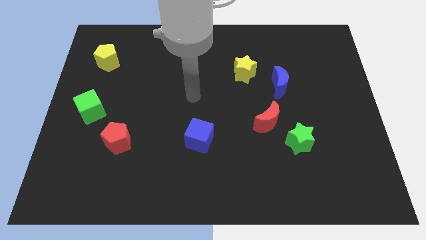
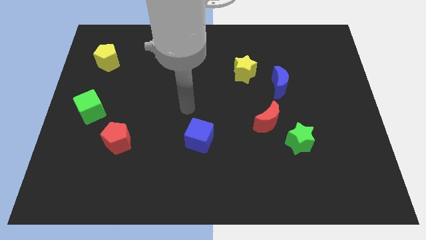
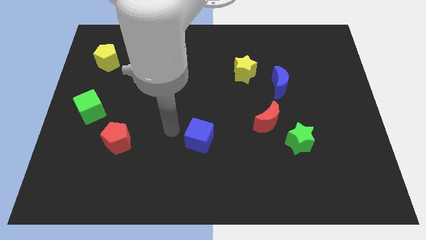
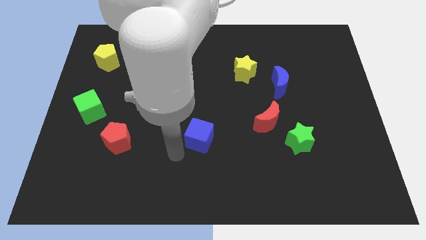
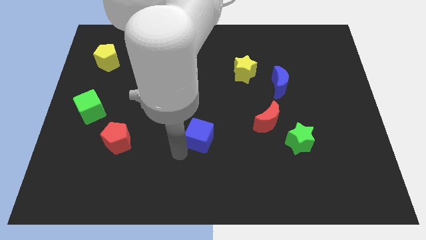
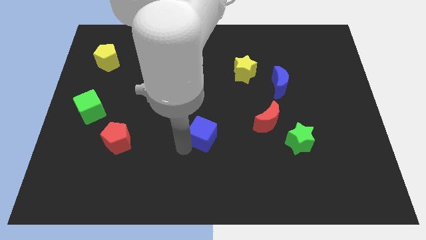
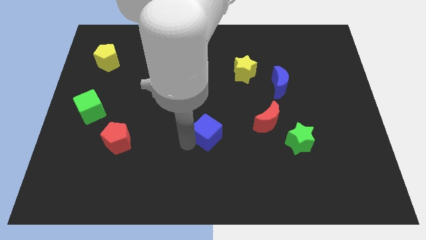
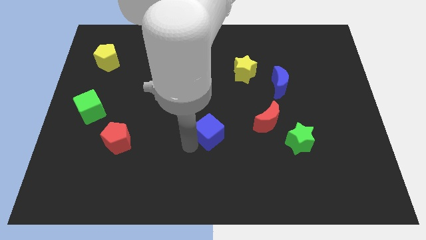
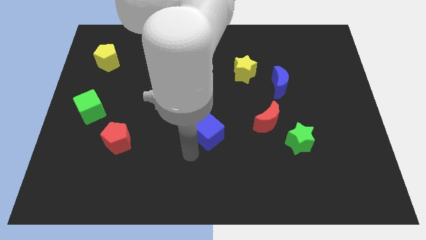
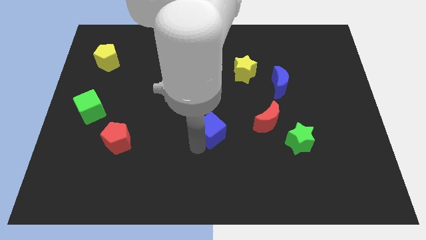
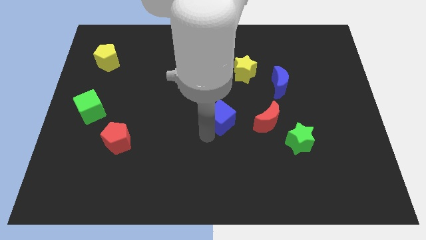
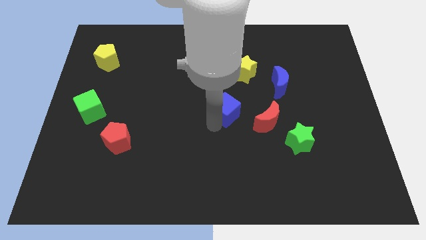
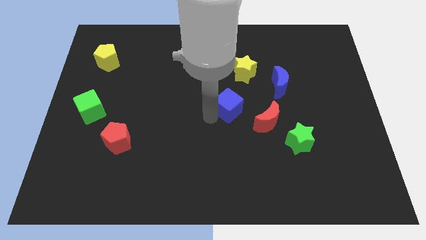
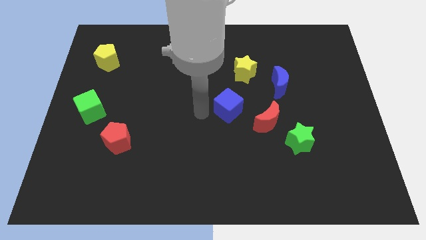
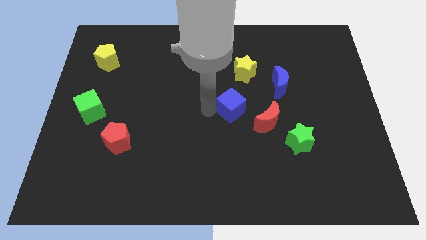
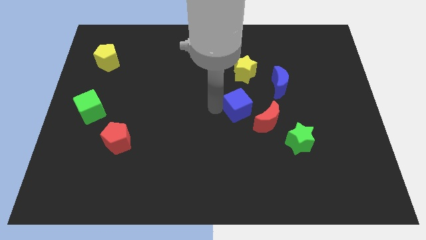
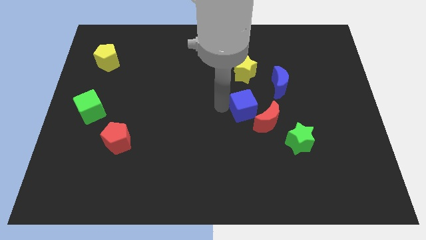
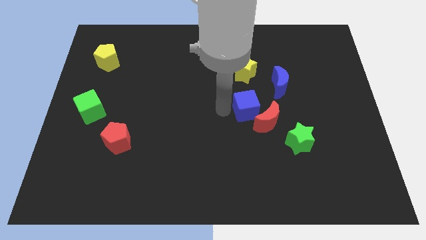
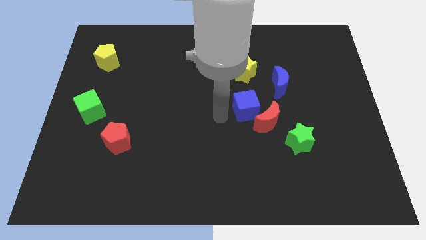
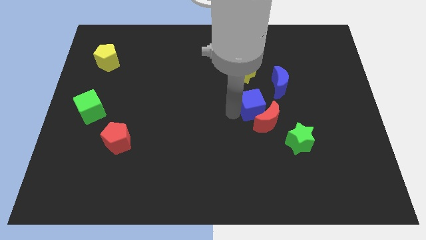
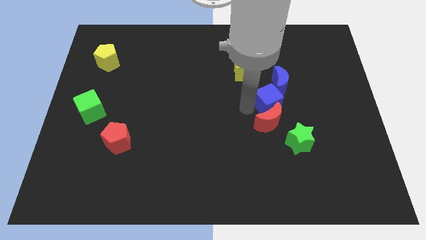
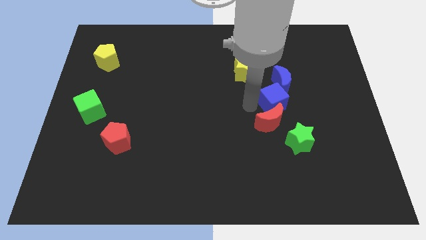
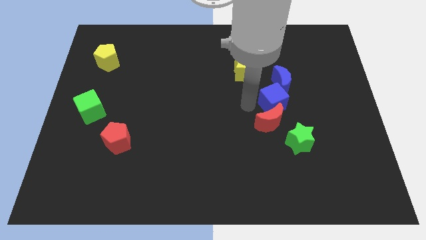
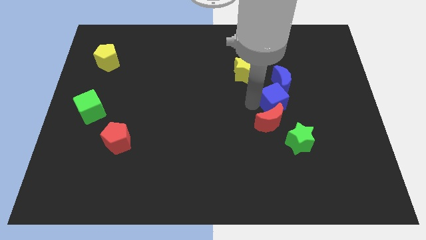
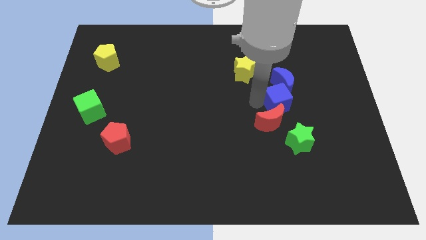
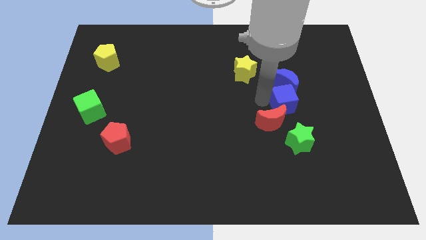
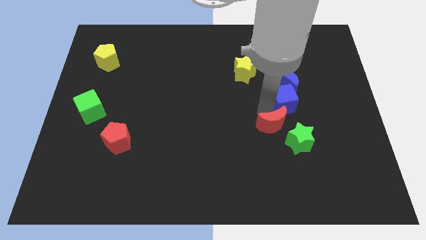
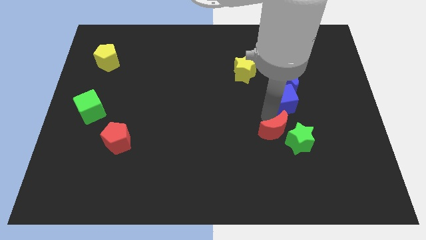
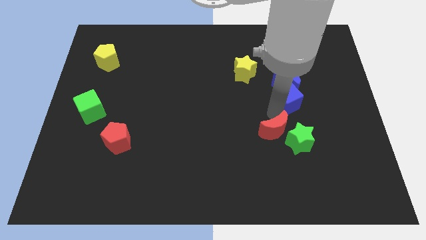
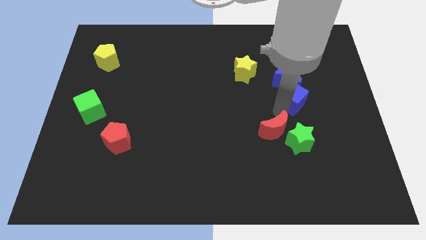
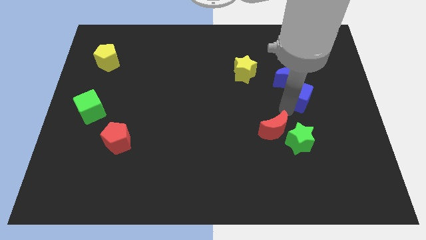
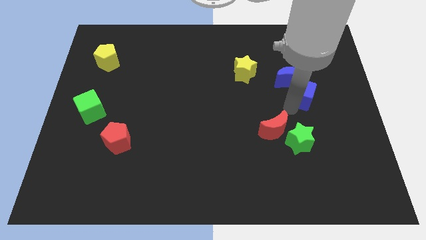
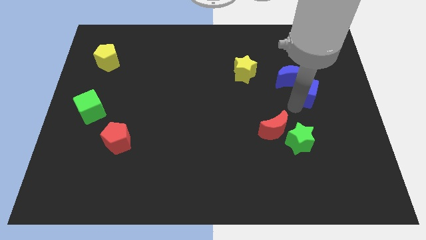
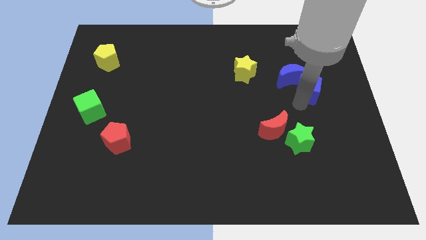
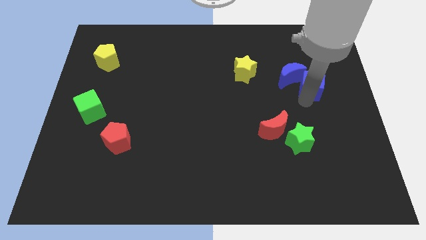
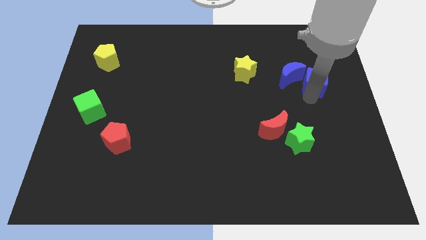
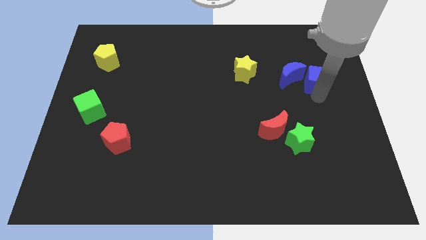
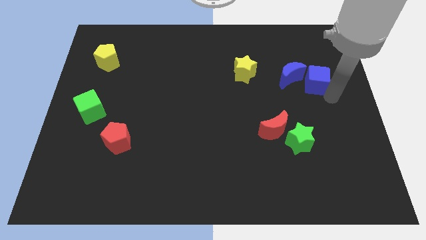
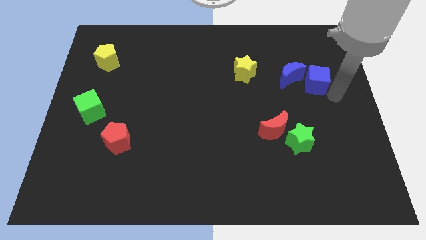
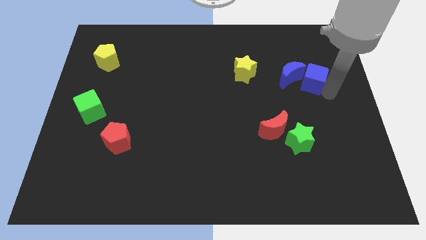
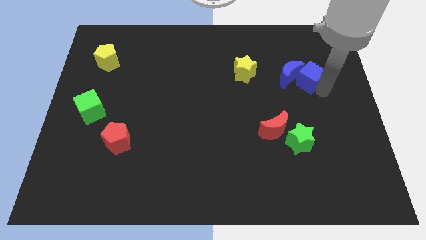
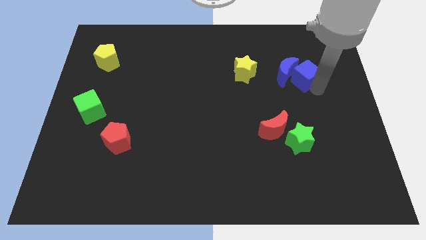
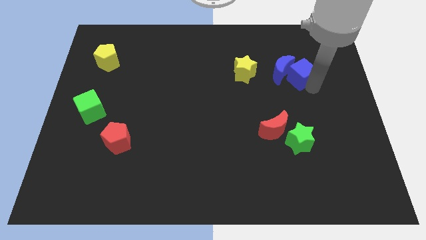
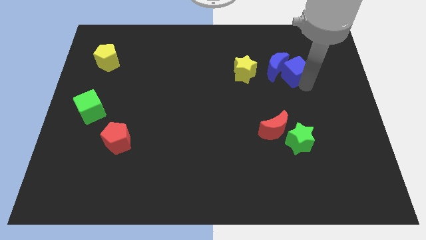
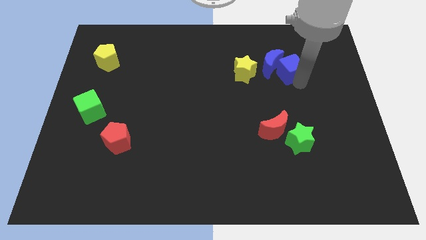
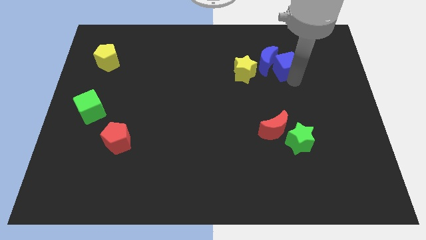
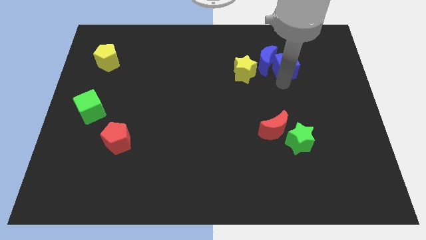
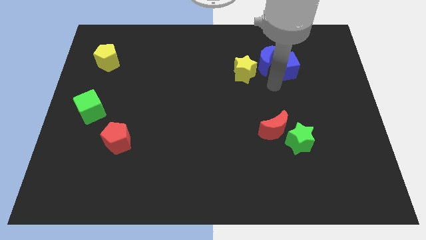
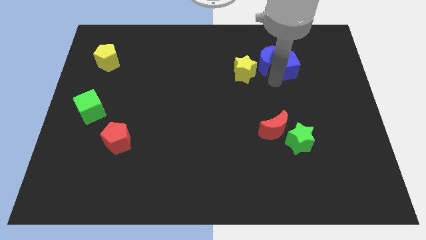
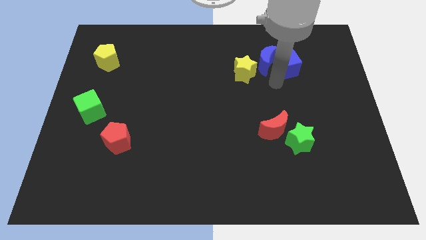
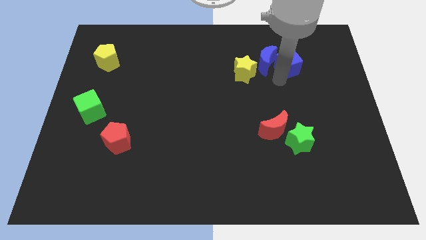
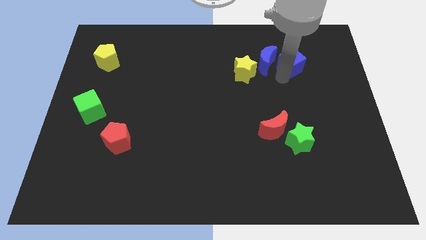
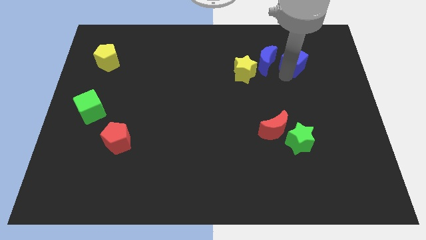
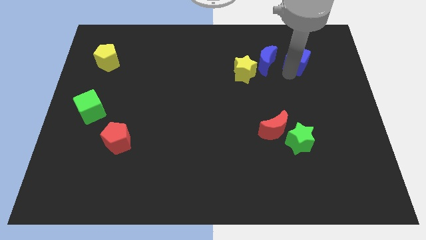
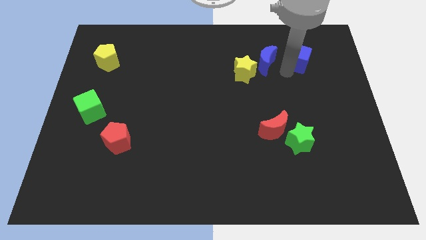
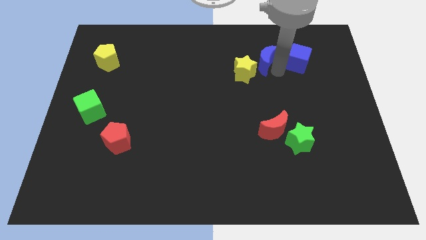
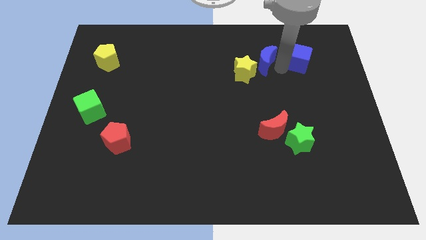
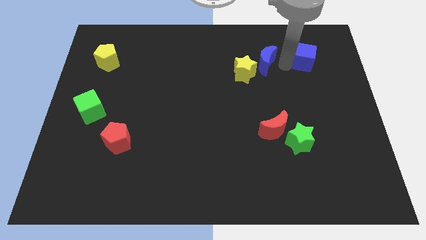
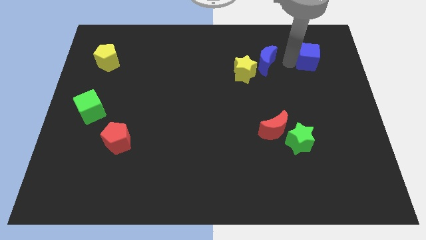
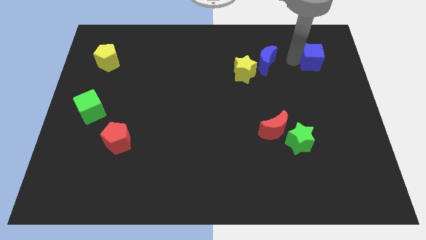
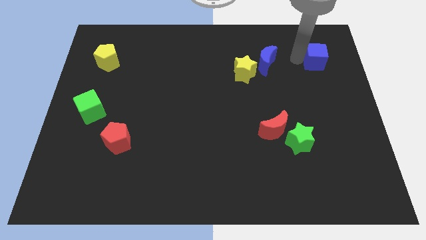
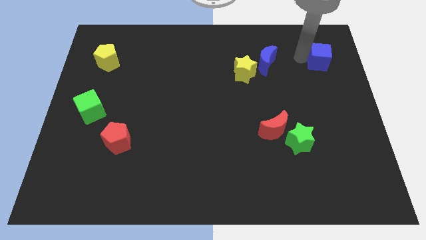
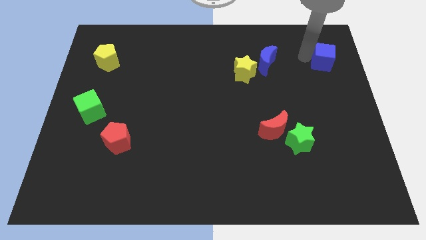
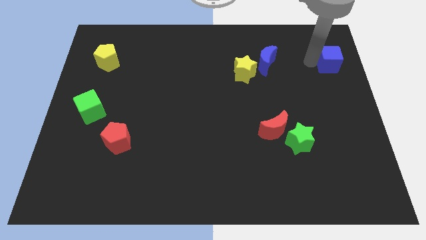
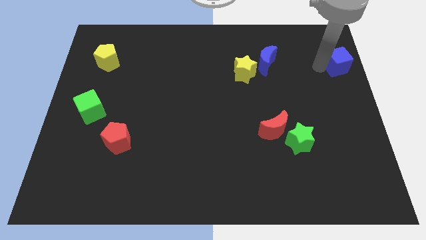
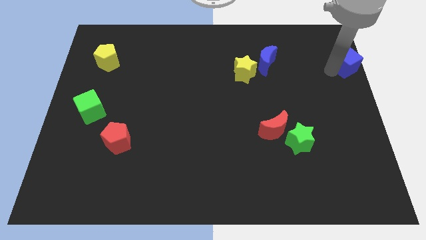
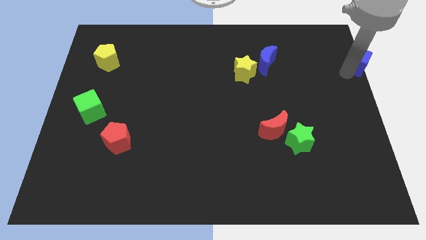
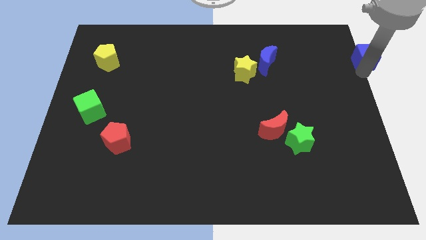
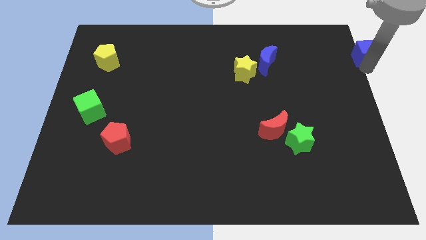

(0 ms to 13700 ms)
push the blue cube to the upper right corner
